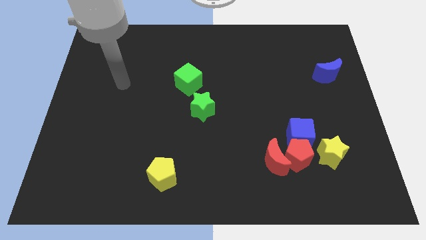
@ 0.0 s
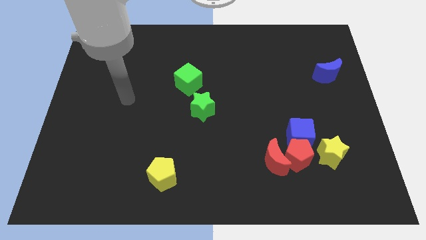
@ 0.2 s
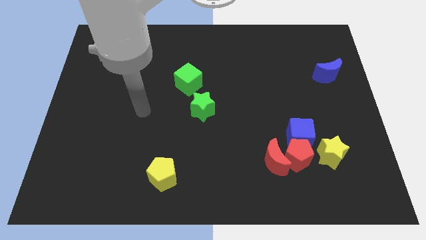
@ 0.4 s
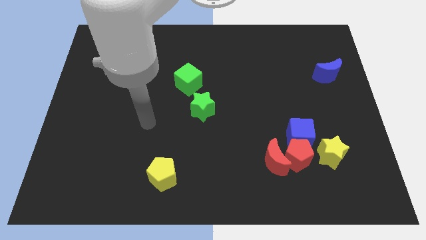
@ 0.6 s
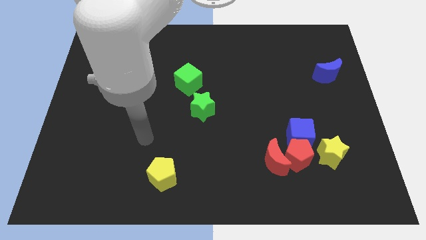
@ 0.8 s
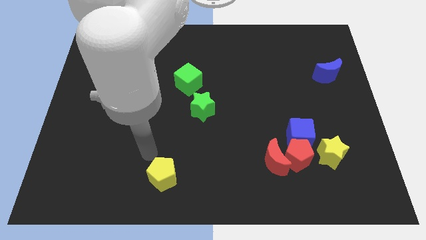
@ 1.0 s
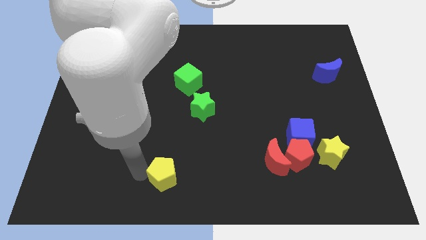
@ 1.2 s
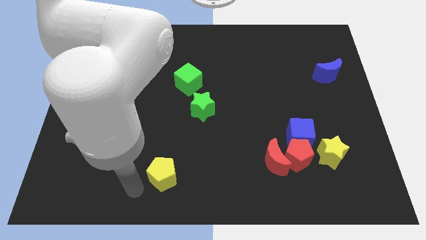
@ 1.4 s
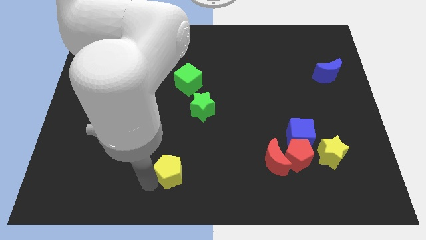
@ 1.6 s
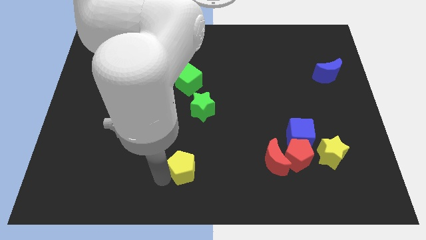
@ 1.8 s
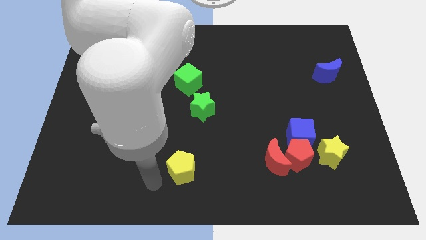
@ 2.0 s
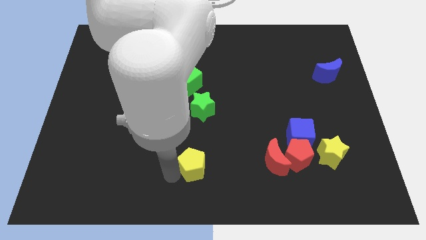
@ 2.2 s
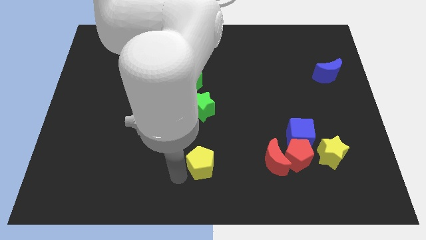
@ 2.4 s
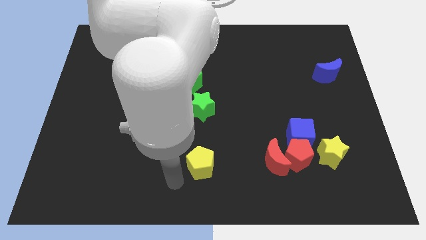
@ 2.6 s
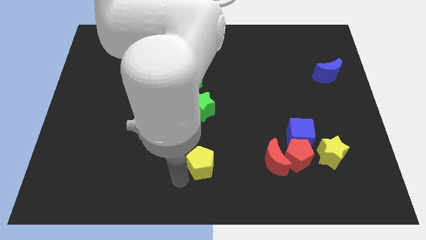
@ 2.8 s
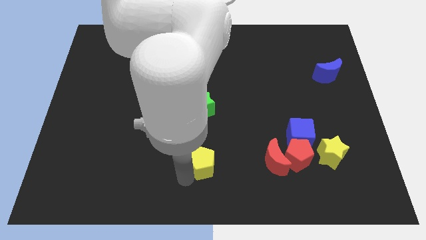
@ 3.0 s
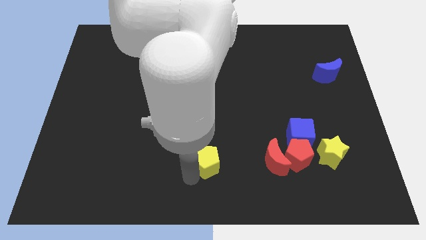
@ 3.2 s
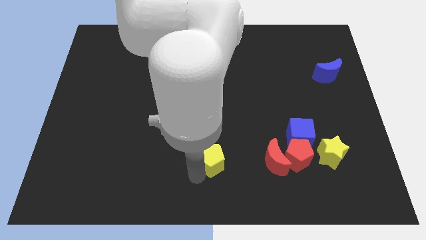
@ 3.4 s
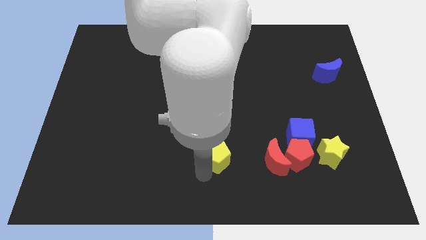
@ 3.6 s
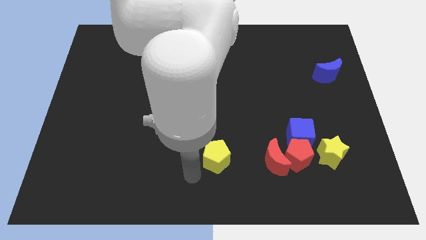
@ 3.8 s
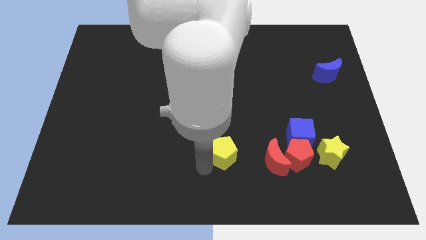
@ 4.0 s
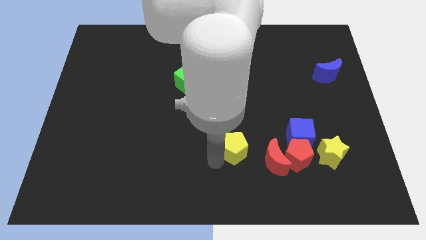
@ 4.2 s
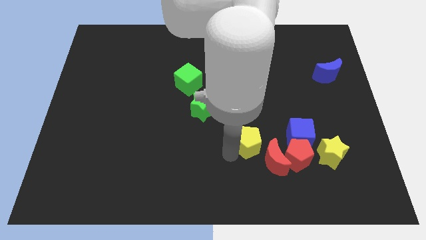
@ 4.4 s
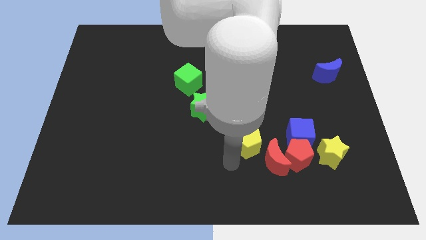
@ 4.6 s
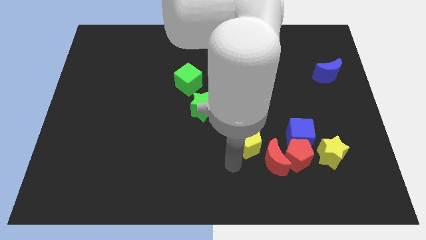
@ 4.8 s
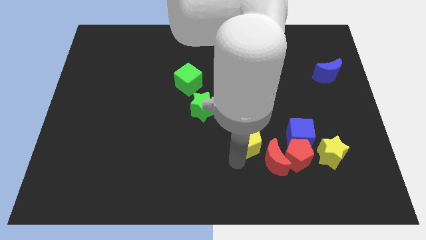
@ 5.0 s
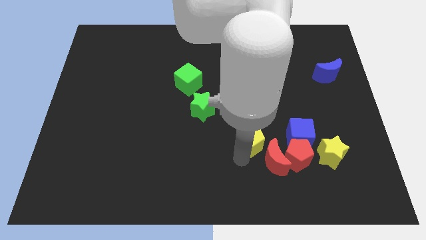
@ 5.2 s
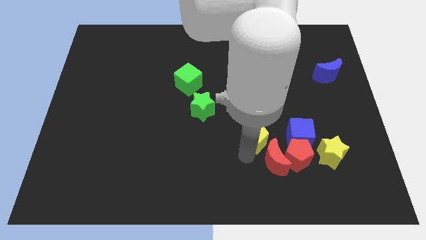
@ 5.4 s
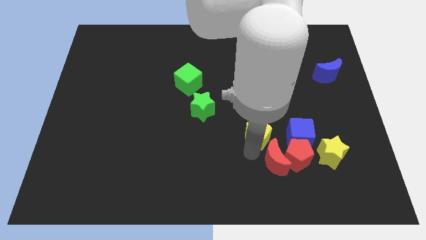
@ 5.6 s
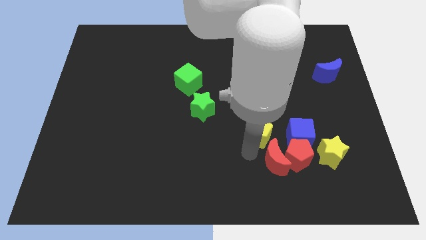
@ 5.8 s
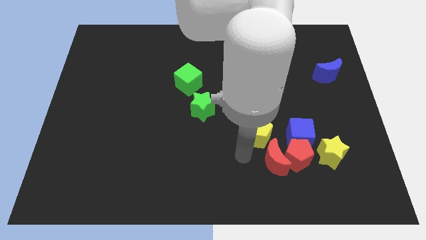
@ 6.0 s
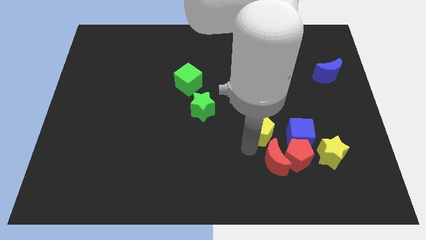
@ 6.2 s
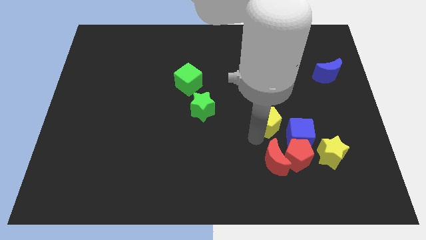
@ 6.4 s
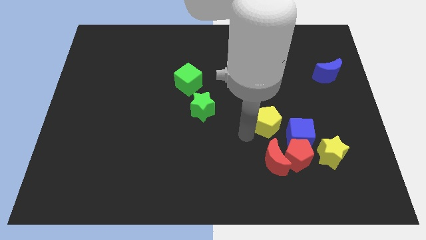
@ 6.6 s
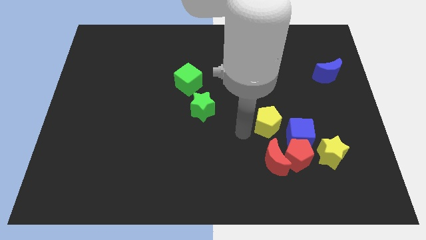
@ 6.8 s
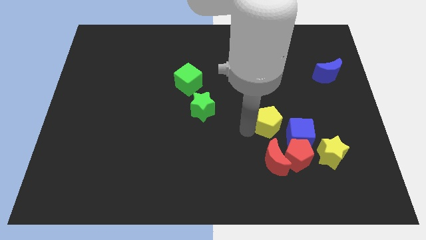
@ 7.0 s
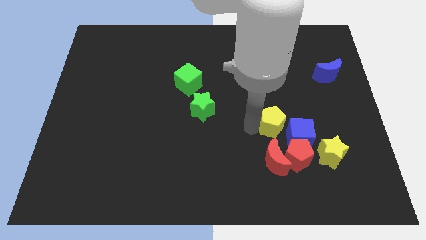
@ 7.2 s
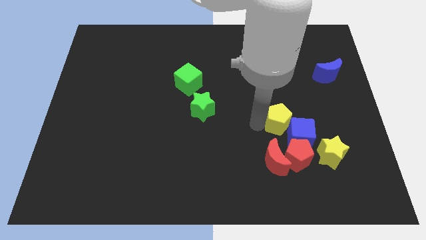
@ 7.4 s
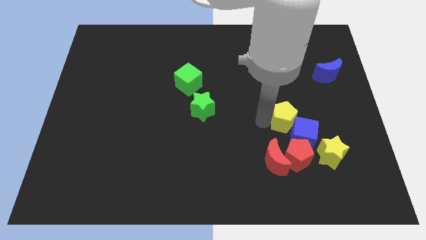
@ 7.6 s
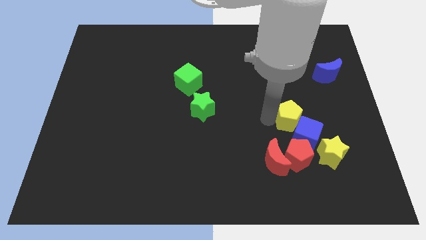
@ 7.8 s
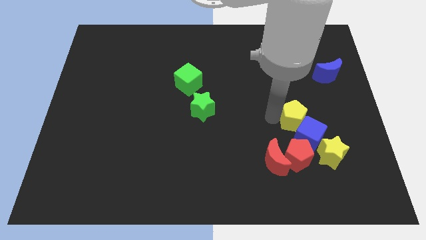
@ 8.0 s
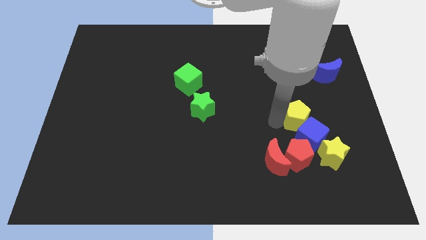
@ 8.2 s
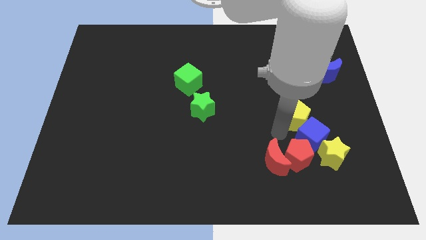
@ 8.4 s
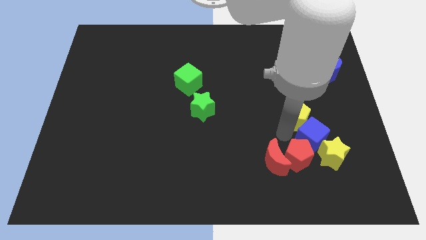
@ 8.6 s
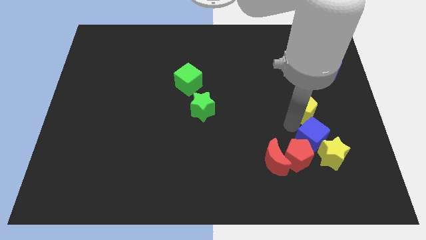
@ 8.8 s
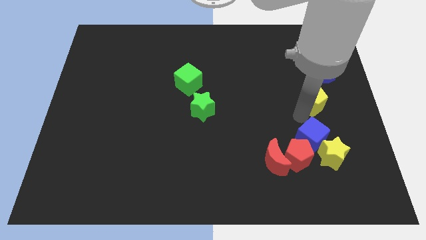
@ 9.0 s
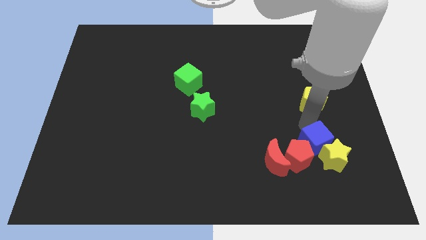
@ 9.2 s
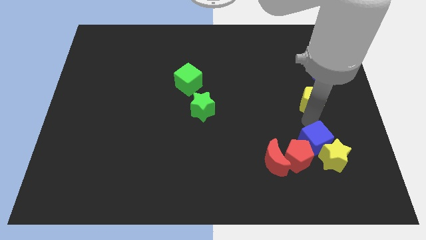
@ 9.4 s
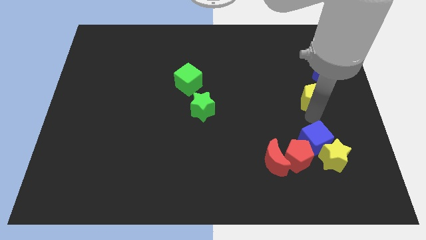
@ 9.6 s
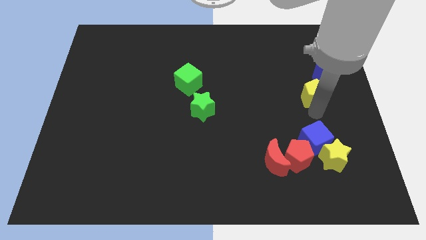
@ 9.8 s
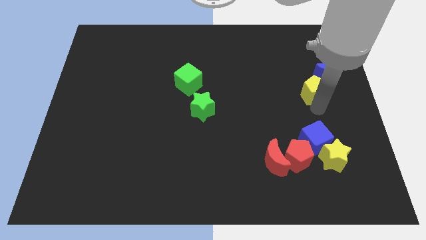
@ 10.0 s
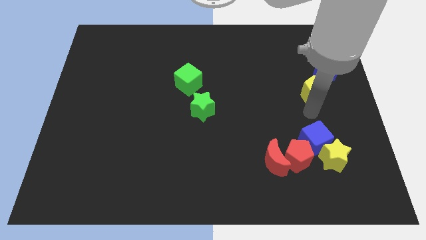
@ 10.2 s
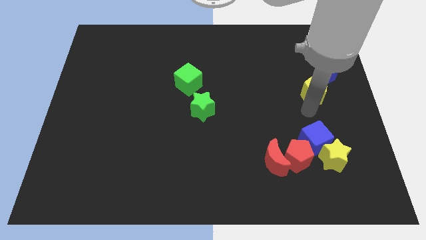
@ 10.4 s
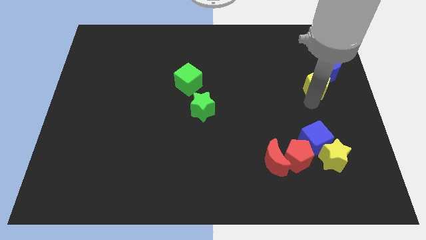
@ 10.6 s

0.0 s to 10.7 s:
put the yellow pentagon next to the blue moon

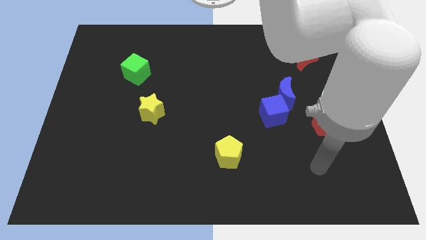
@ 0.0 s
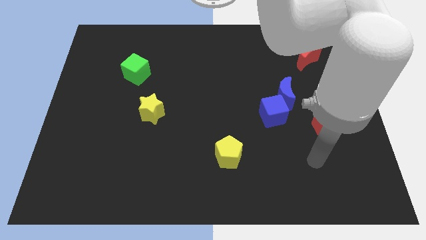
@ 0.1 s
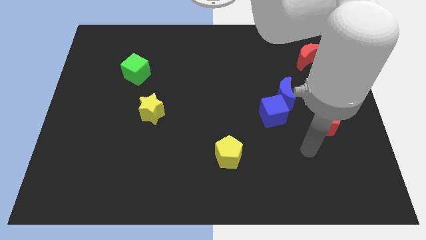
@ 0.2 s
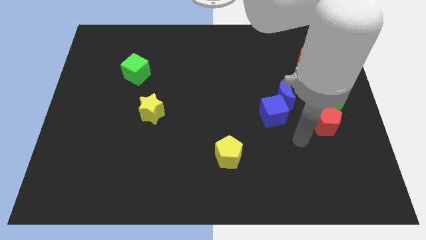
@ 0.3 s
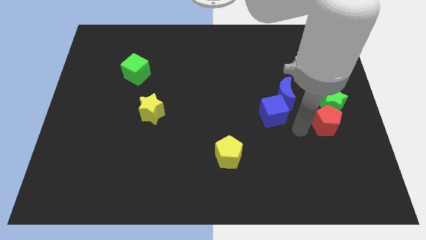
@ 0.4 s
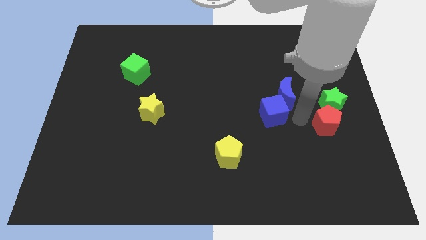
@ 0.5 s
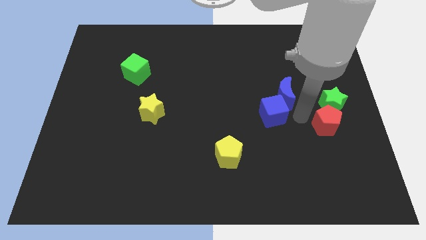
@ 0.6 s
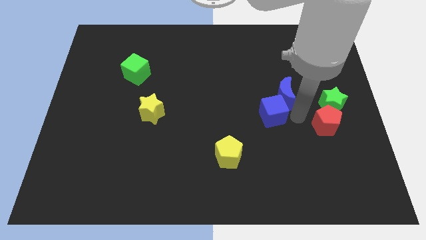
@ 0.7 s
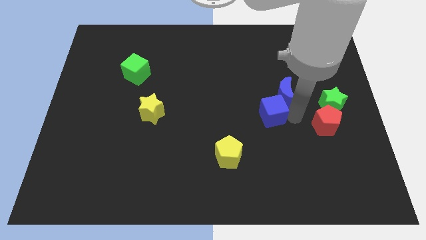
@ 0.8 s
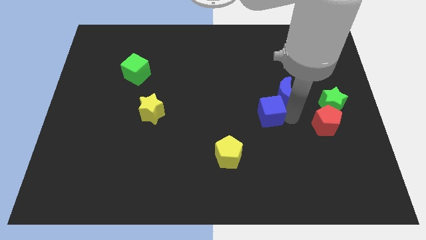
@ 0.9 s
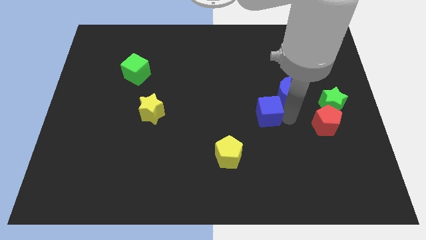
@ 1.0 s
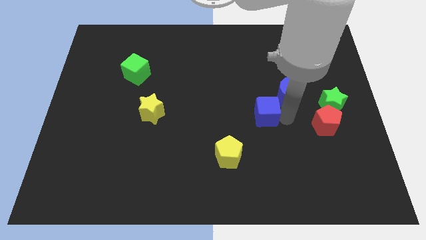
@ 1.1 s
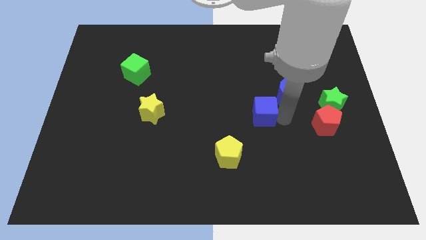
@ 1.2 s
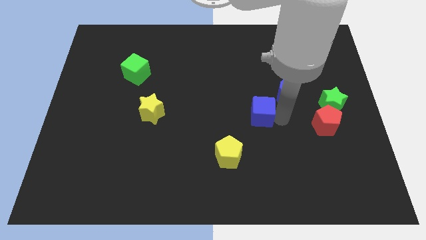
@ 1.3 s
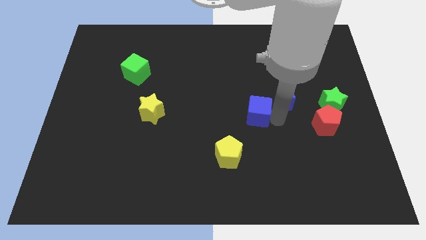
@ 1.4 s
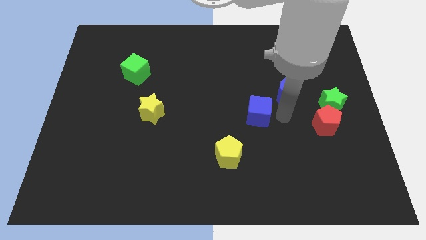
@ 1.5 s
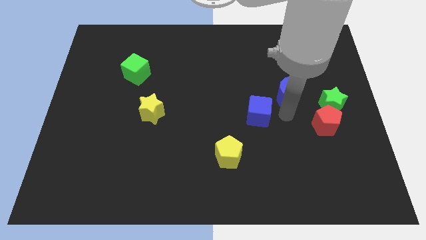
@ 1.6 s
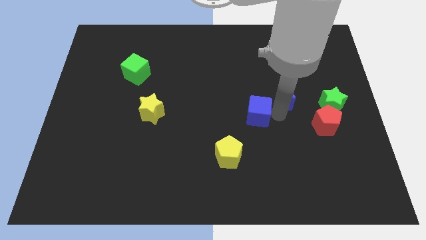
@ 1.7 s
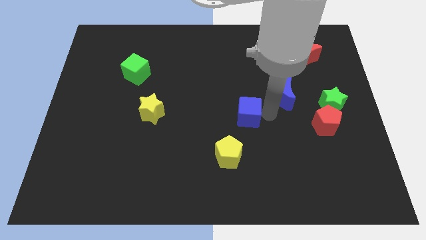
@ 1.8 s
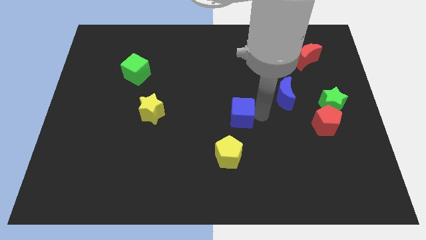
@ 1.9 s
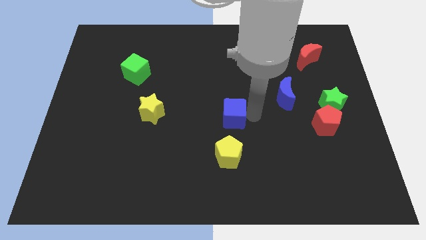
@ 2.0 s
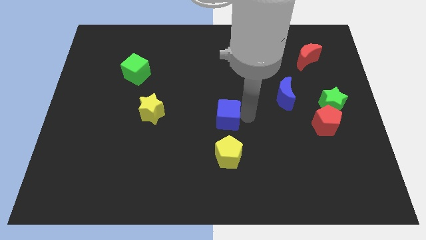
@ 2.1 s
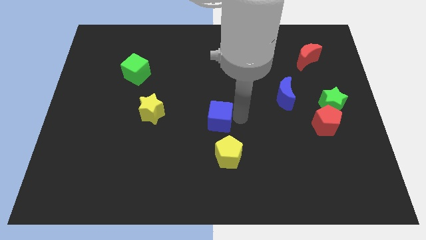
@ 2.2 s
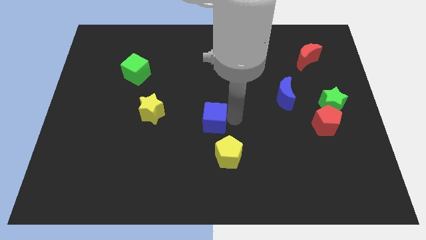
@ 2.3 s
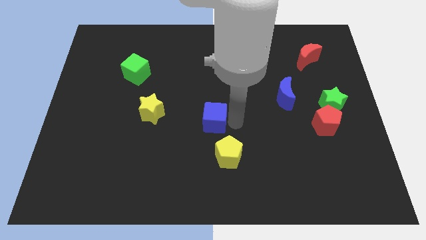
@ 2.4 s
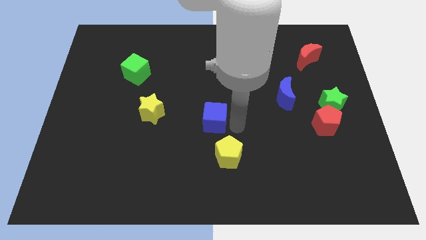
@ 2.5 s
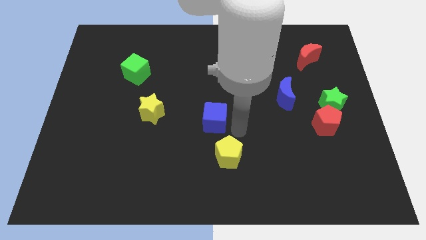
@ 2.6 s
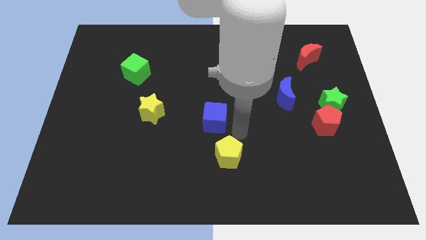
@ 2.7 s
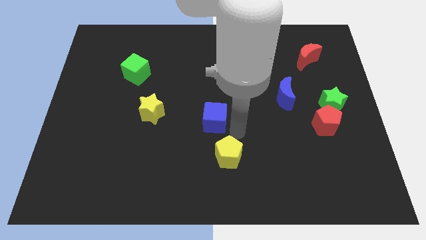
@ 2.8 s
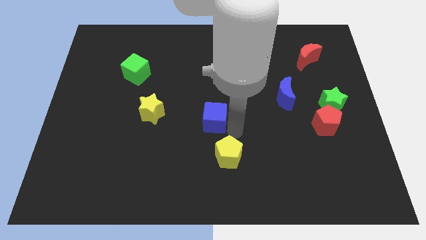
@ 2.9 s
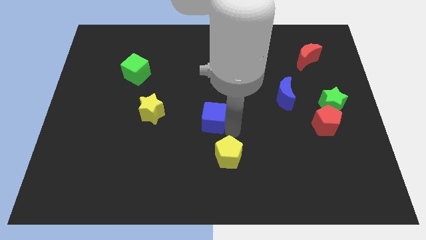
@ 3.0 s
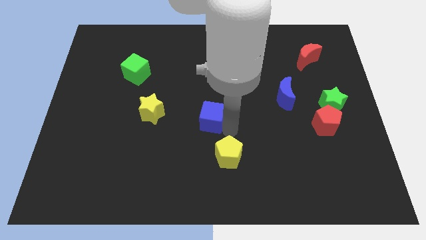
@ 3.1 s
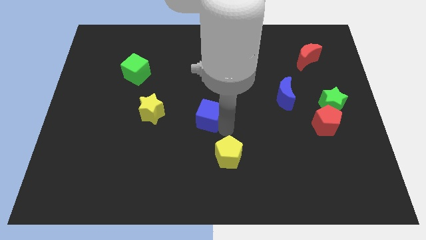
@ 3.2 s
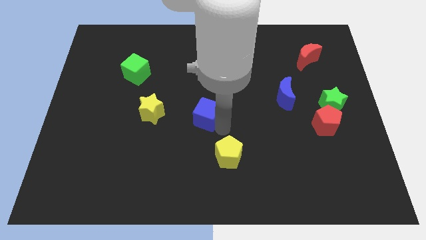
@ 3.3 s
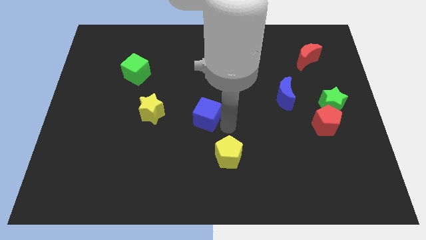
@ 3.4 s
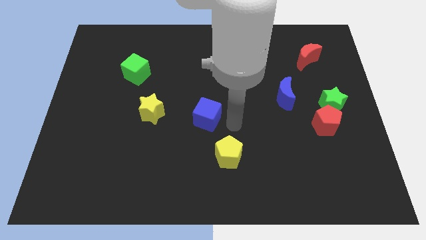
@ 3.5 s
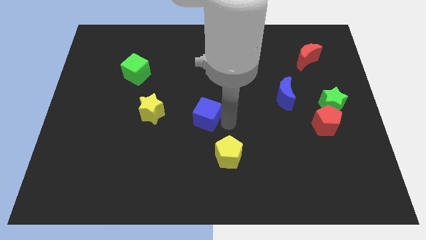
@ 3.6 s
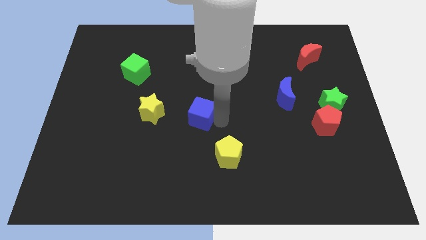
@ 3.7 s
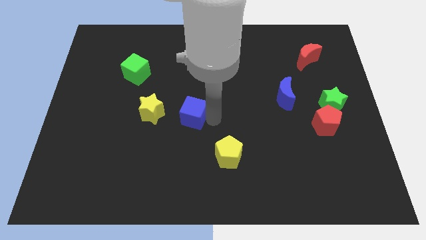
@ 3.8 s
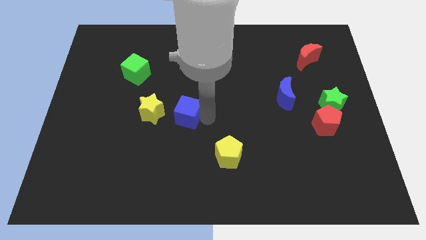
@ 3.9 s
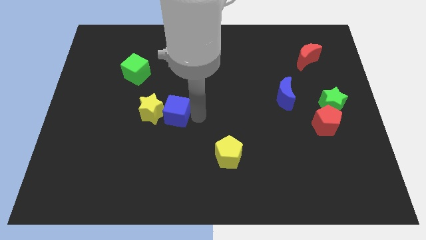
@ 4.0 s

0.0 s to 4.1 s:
move the blue cube close to the yellow star
